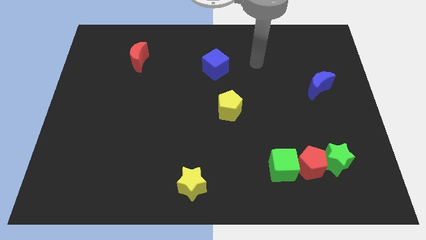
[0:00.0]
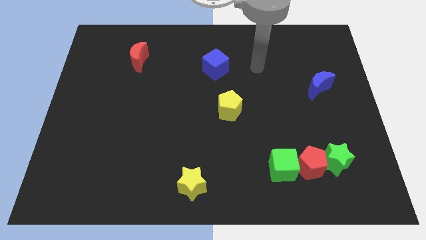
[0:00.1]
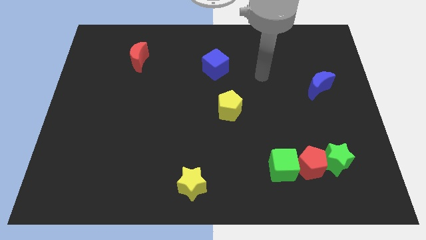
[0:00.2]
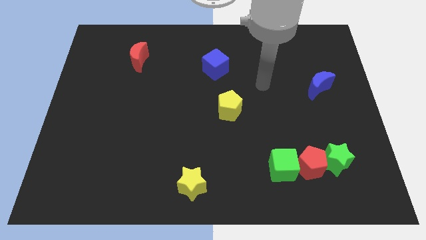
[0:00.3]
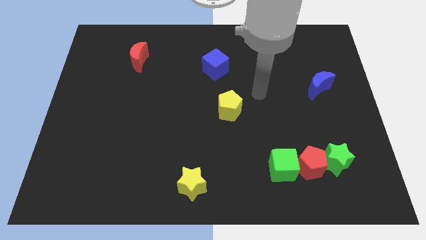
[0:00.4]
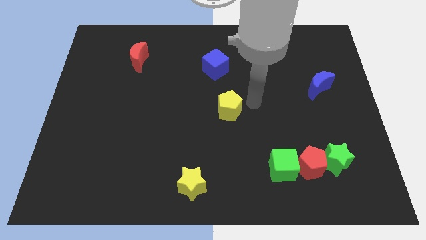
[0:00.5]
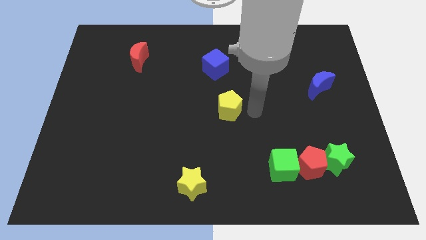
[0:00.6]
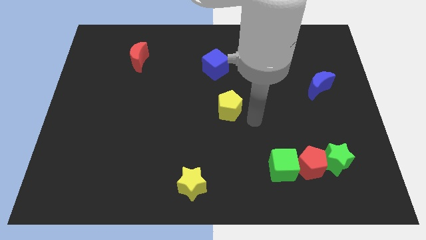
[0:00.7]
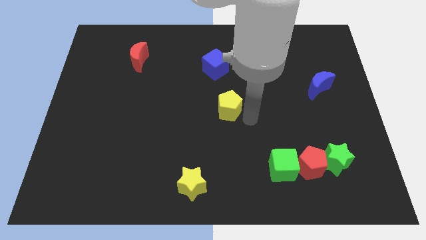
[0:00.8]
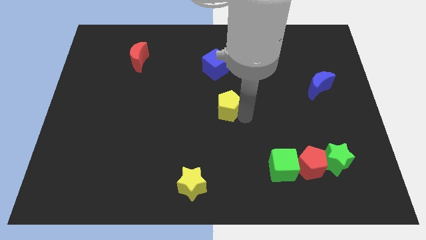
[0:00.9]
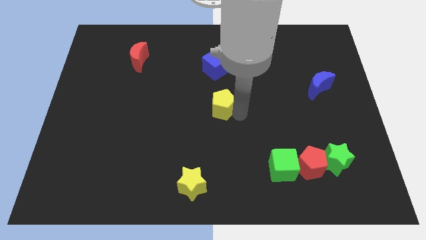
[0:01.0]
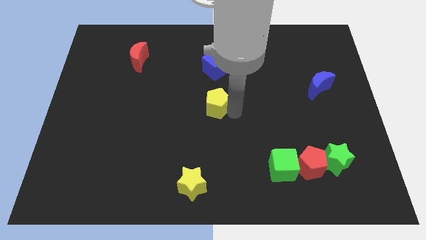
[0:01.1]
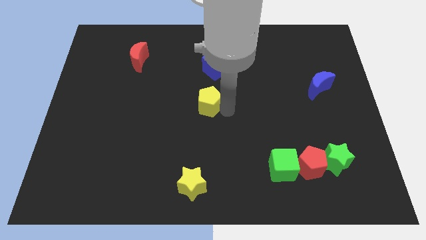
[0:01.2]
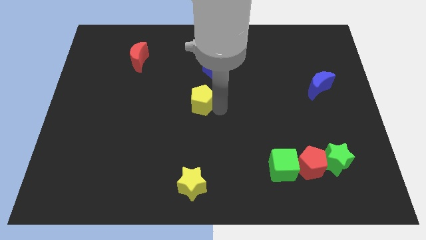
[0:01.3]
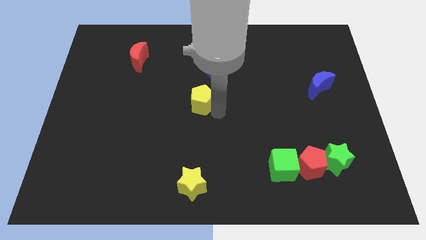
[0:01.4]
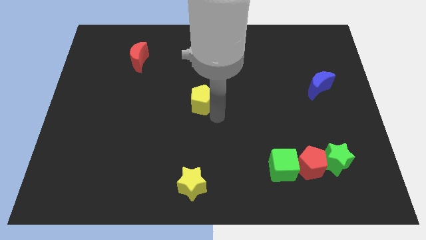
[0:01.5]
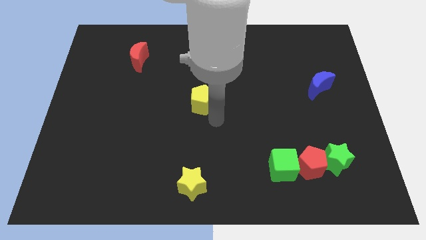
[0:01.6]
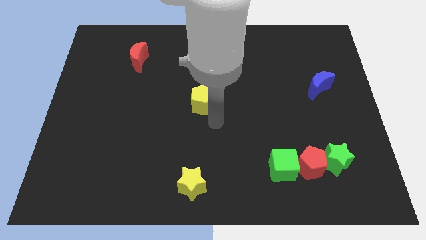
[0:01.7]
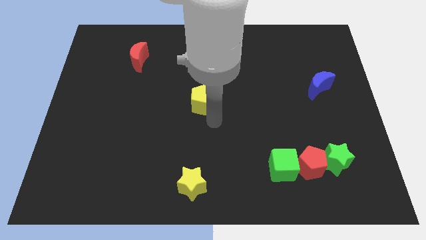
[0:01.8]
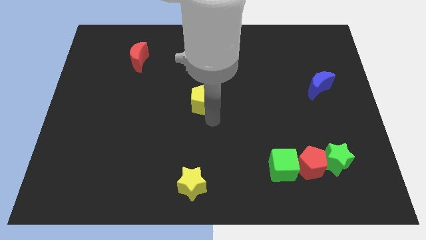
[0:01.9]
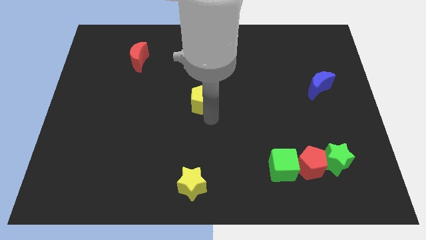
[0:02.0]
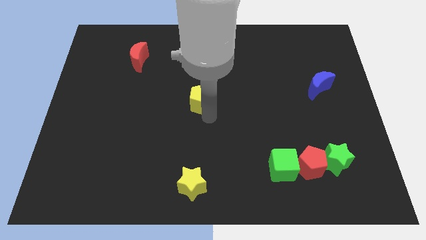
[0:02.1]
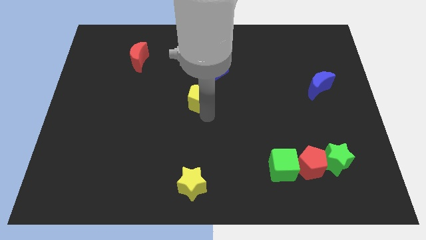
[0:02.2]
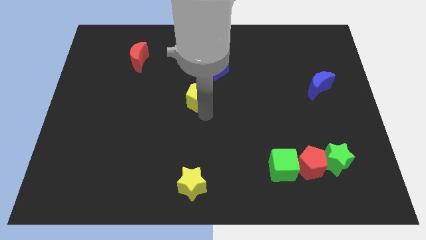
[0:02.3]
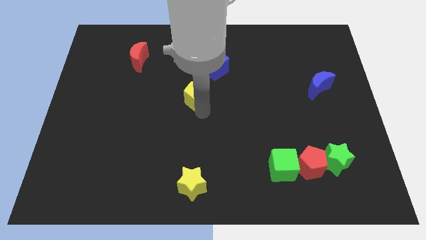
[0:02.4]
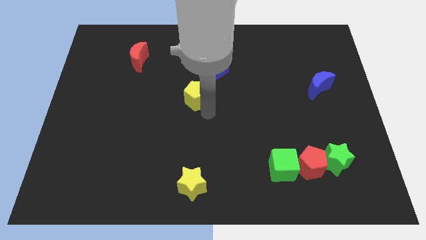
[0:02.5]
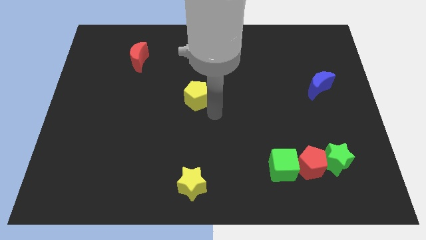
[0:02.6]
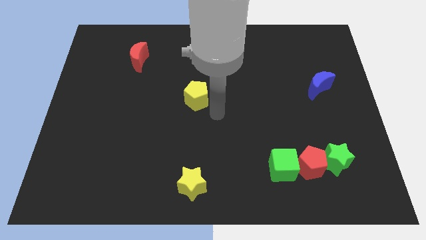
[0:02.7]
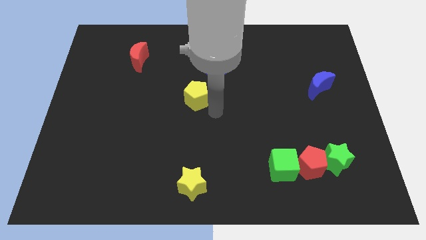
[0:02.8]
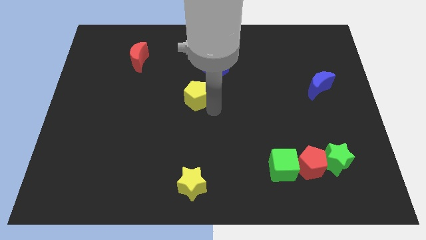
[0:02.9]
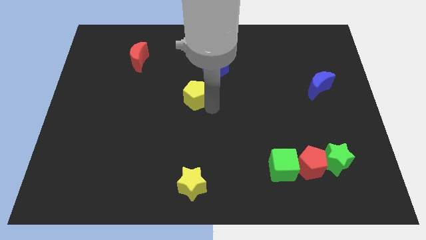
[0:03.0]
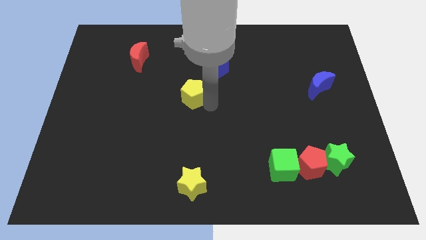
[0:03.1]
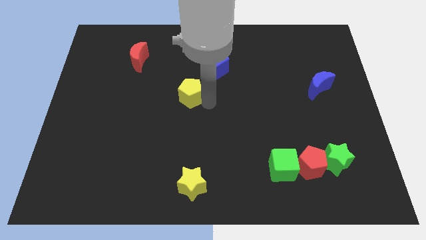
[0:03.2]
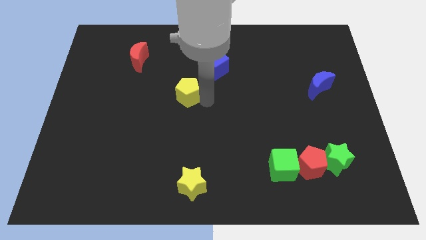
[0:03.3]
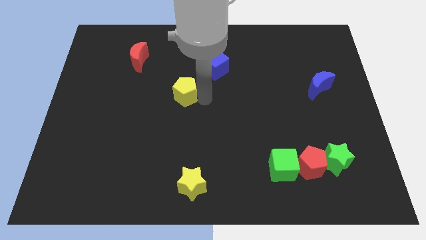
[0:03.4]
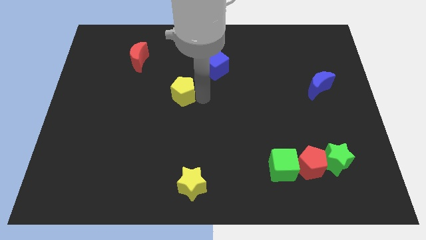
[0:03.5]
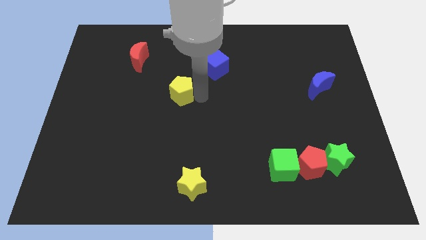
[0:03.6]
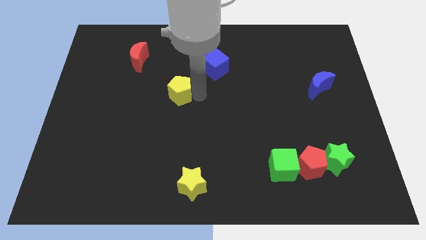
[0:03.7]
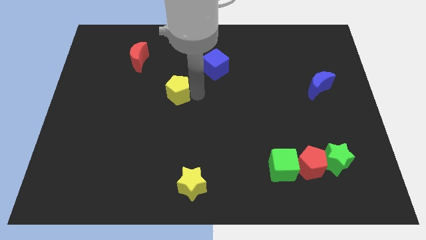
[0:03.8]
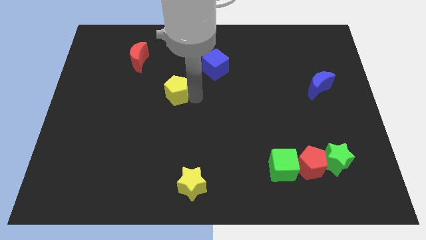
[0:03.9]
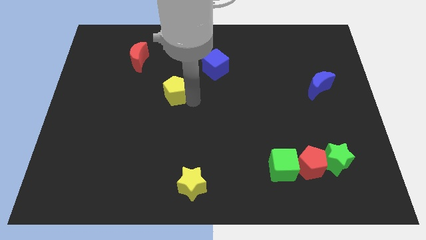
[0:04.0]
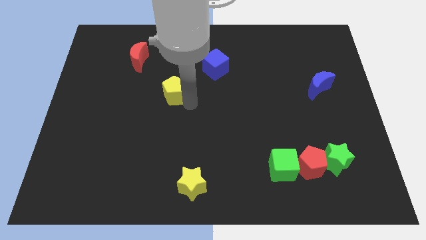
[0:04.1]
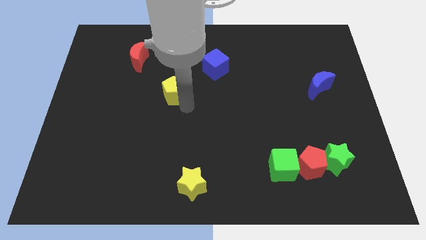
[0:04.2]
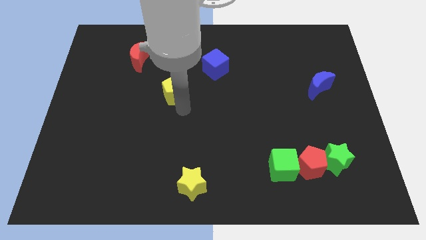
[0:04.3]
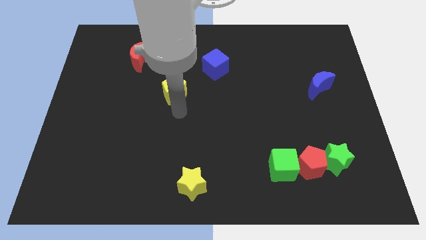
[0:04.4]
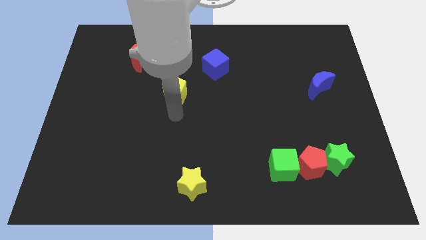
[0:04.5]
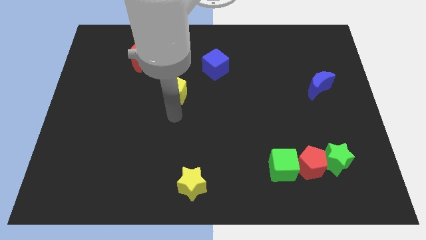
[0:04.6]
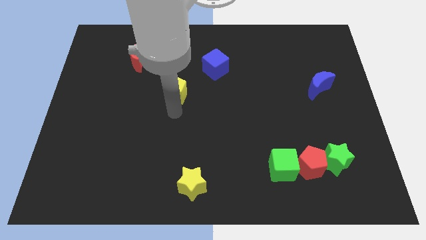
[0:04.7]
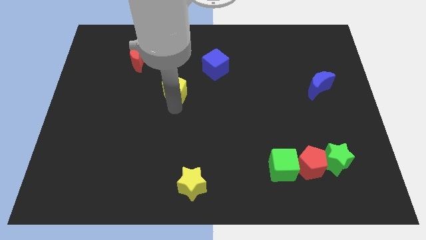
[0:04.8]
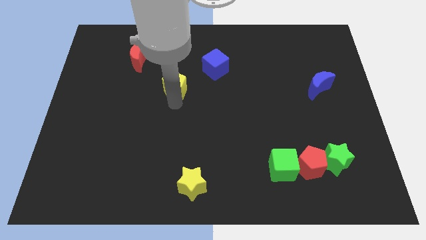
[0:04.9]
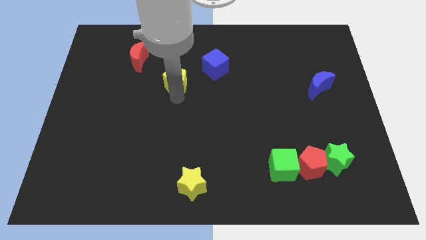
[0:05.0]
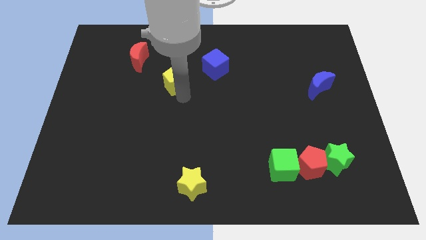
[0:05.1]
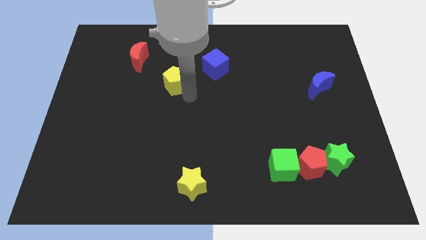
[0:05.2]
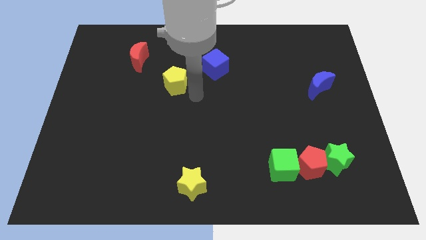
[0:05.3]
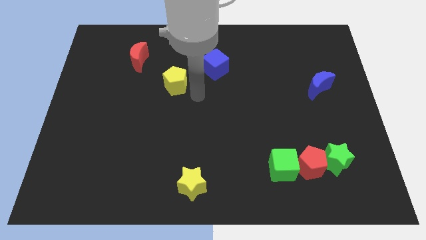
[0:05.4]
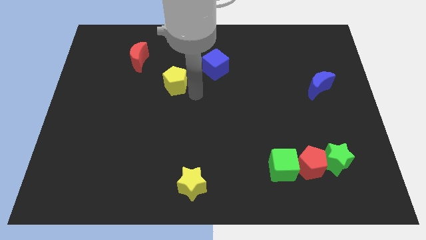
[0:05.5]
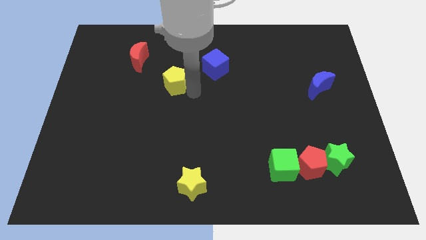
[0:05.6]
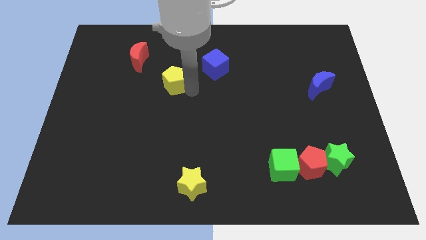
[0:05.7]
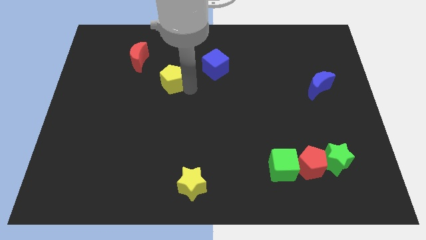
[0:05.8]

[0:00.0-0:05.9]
slide the yellow pentagon diagonally down and to the right of the red moon

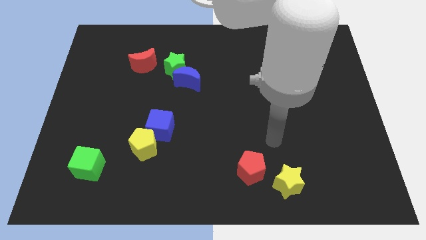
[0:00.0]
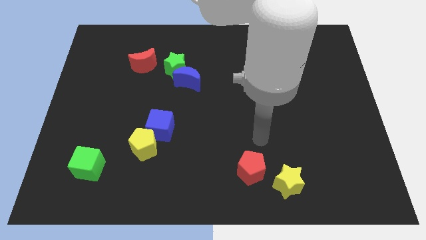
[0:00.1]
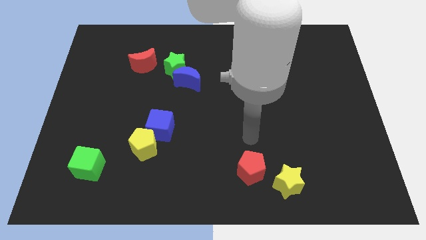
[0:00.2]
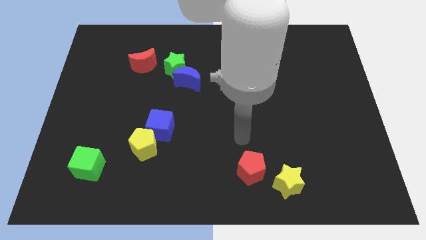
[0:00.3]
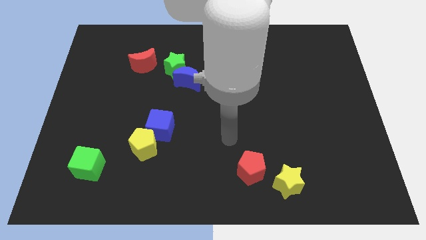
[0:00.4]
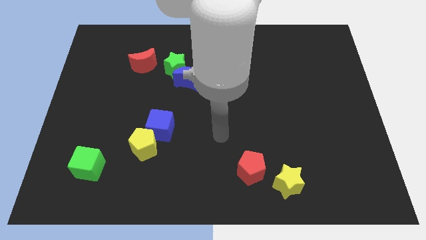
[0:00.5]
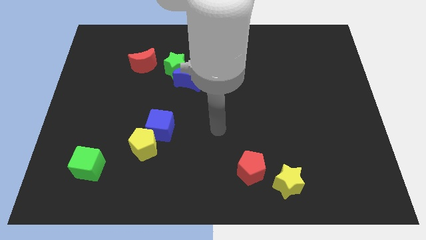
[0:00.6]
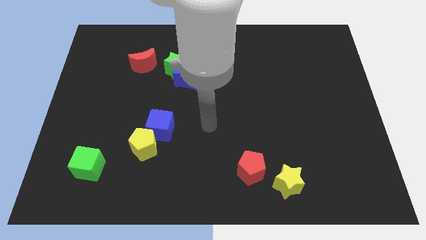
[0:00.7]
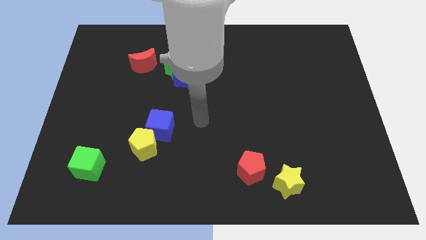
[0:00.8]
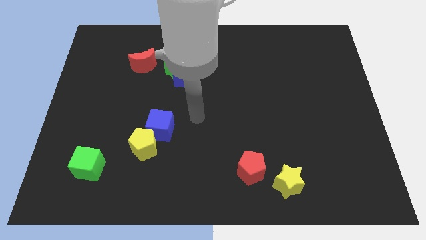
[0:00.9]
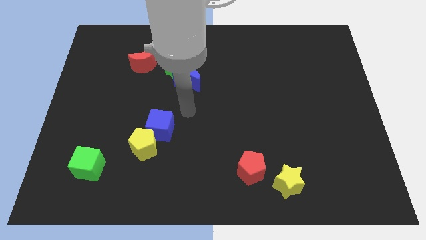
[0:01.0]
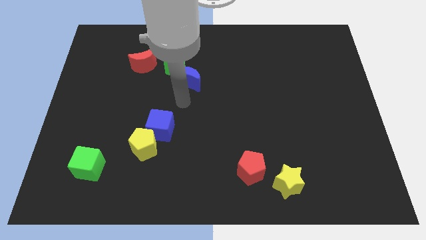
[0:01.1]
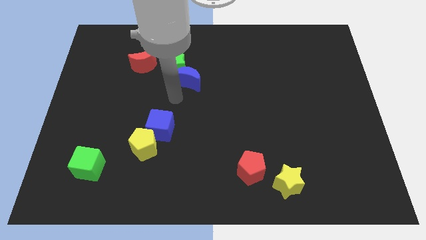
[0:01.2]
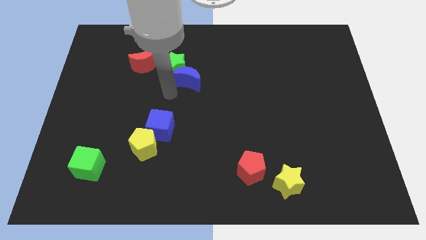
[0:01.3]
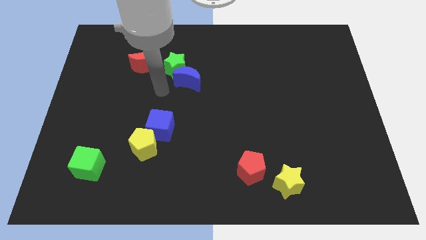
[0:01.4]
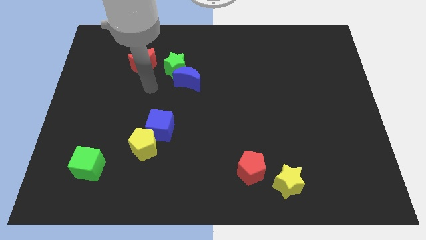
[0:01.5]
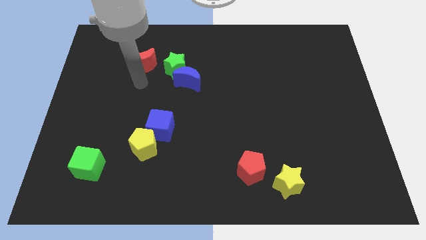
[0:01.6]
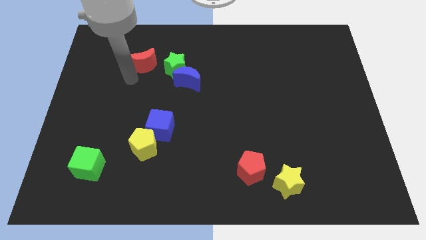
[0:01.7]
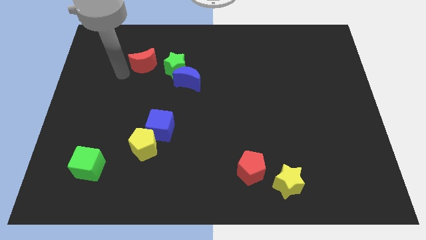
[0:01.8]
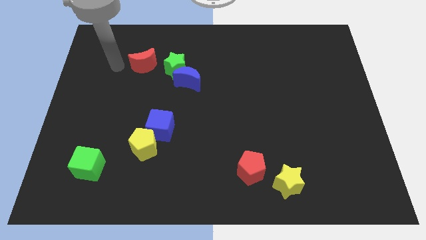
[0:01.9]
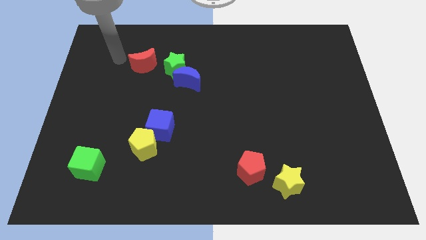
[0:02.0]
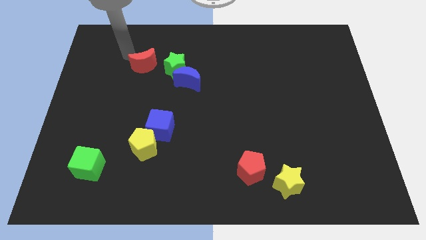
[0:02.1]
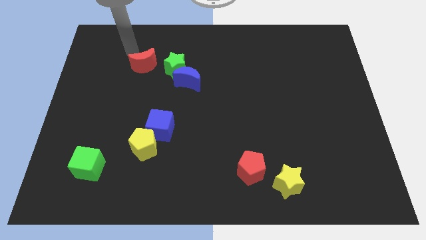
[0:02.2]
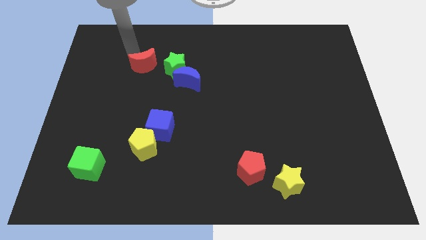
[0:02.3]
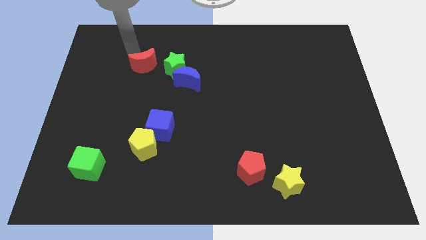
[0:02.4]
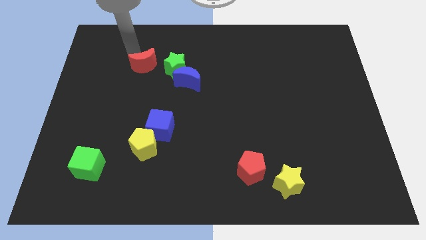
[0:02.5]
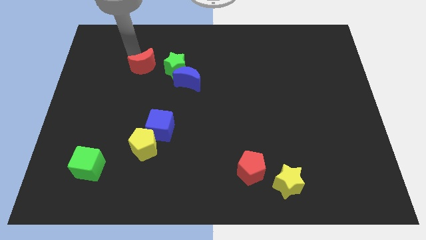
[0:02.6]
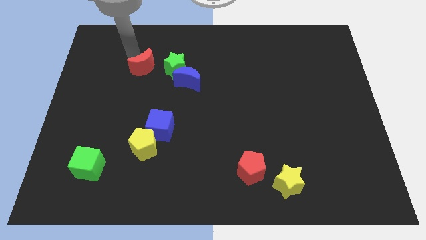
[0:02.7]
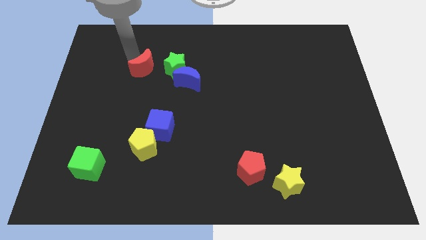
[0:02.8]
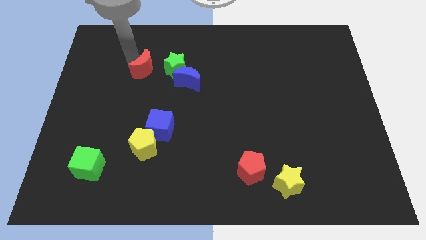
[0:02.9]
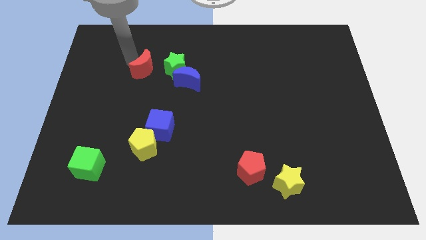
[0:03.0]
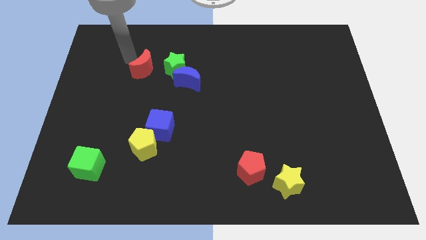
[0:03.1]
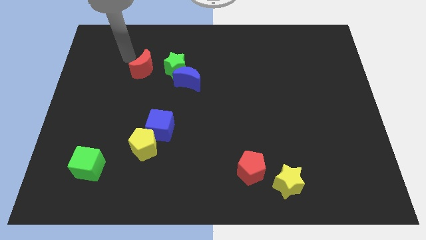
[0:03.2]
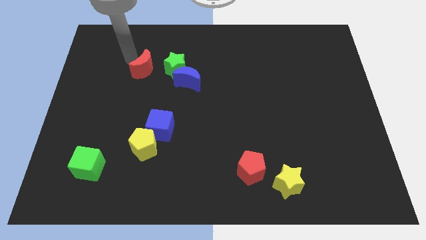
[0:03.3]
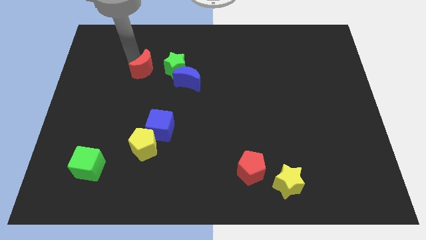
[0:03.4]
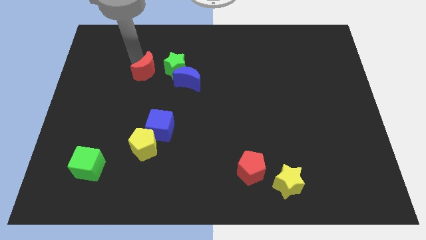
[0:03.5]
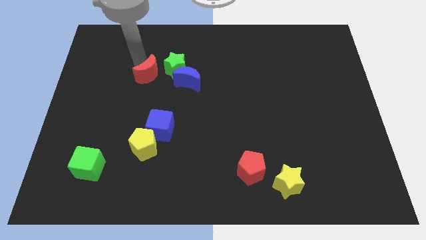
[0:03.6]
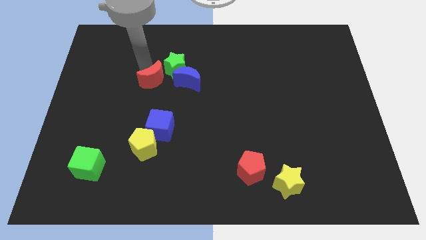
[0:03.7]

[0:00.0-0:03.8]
slide the red moon to the top side of the blue cube
